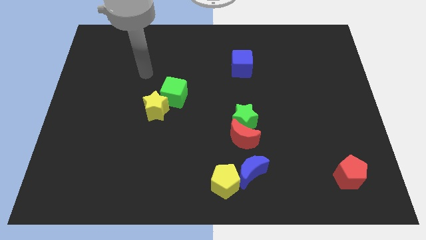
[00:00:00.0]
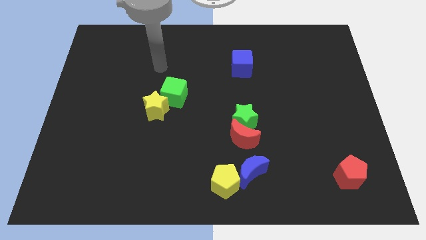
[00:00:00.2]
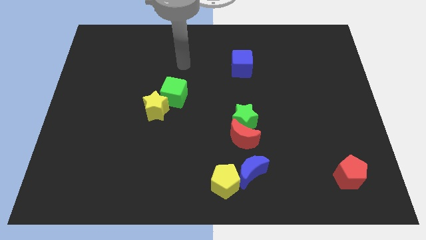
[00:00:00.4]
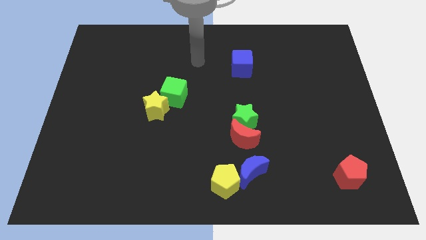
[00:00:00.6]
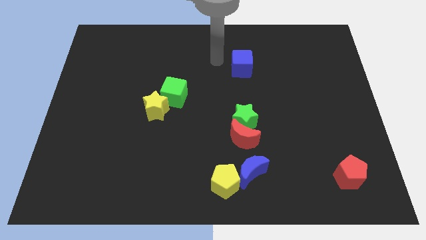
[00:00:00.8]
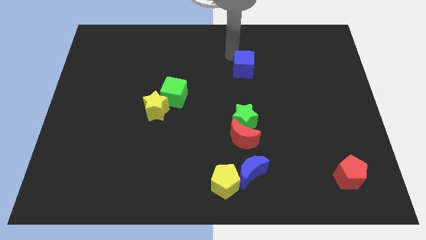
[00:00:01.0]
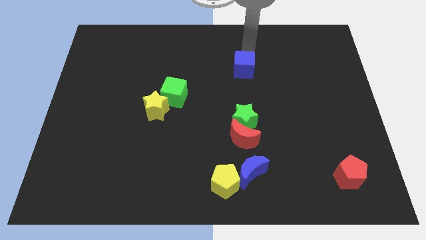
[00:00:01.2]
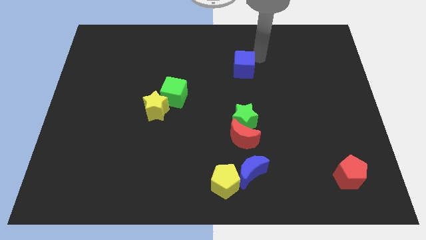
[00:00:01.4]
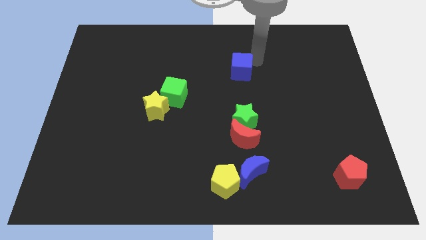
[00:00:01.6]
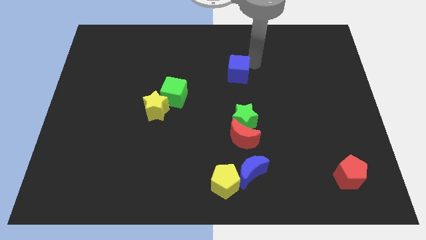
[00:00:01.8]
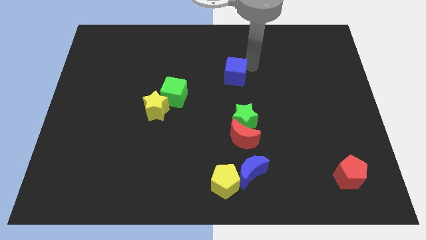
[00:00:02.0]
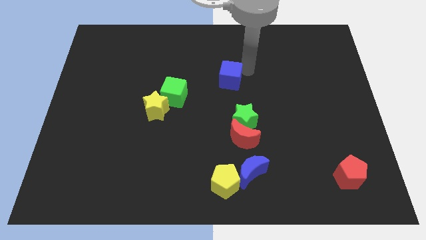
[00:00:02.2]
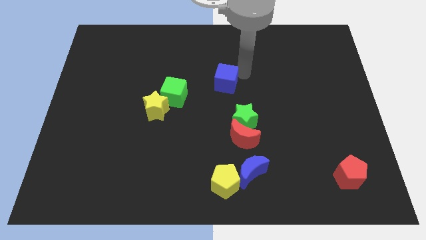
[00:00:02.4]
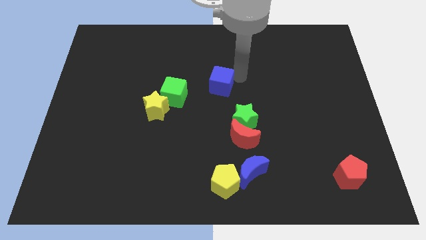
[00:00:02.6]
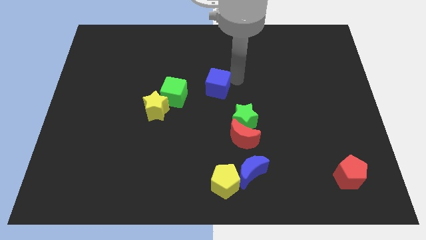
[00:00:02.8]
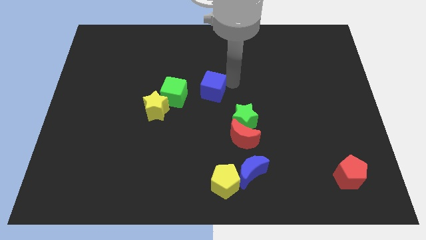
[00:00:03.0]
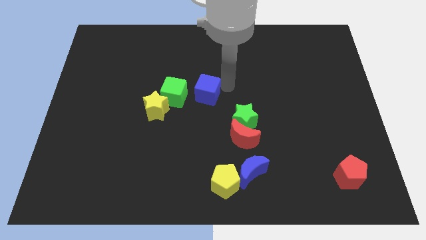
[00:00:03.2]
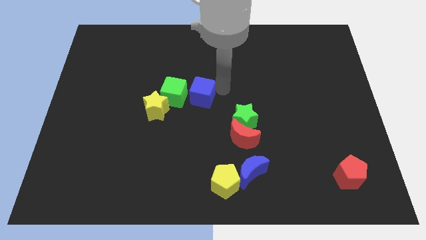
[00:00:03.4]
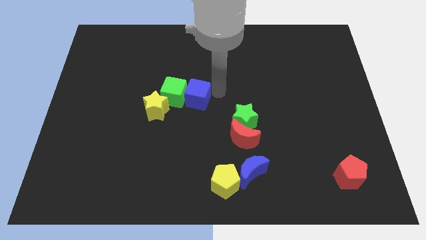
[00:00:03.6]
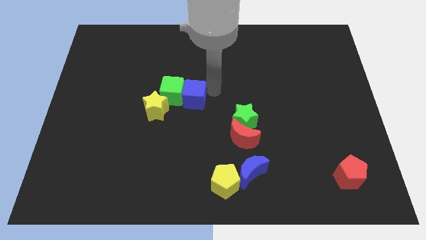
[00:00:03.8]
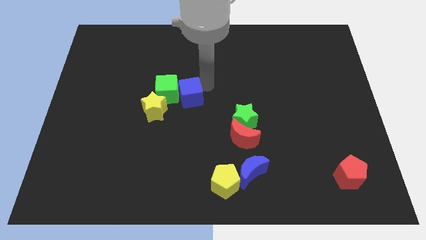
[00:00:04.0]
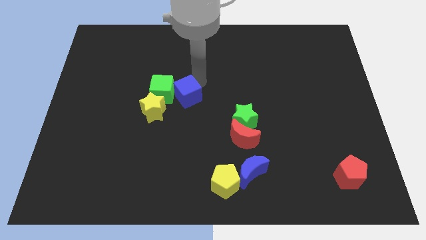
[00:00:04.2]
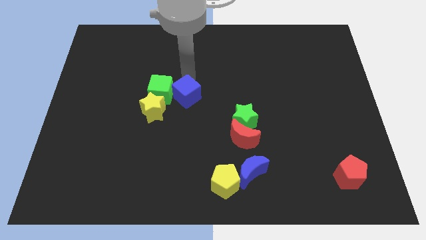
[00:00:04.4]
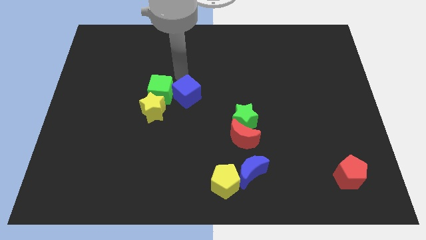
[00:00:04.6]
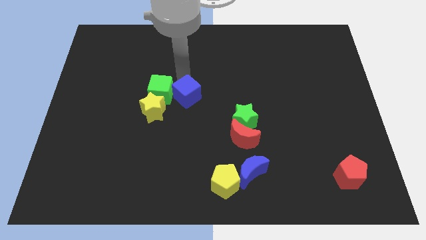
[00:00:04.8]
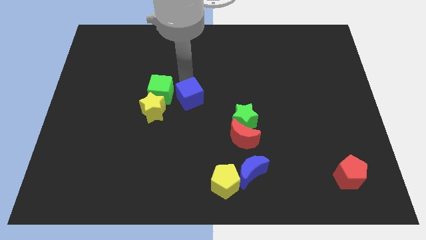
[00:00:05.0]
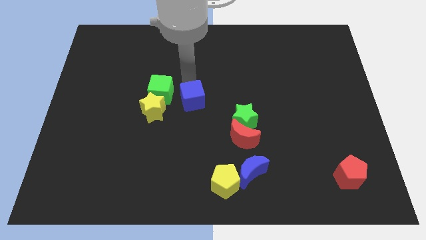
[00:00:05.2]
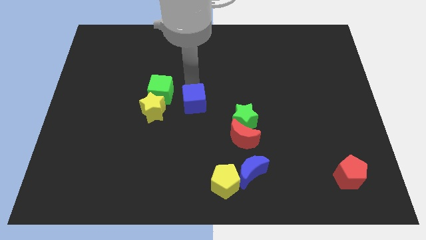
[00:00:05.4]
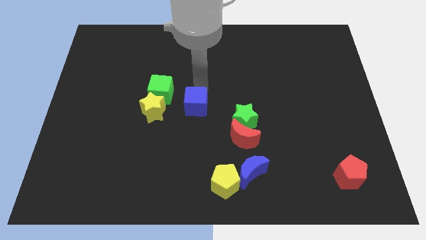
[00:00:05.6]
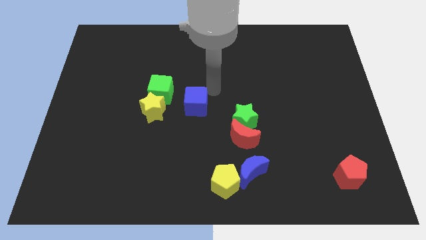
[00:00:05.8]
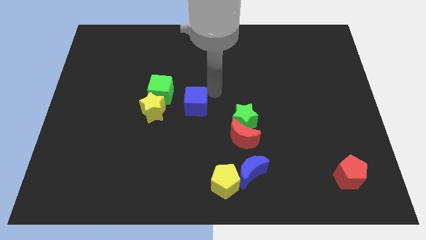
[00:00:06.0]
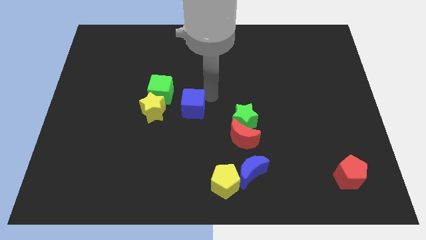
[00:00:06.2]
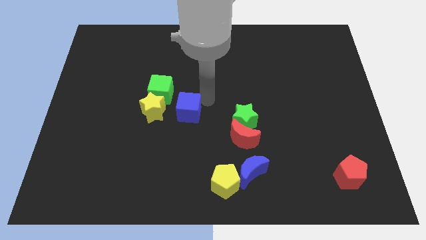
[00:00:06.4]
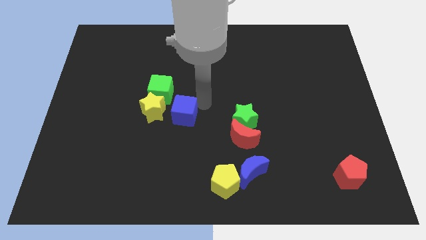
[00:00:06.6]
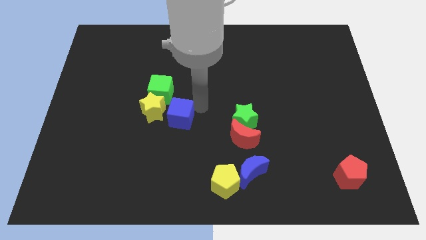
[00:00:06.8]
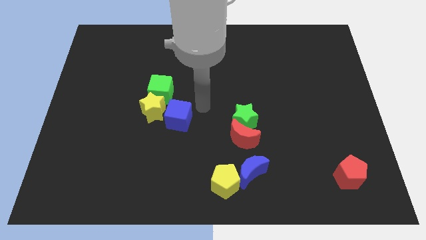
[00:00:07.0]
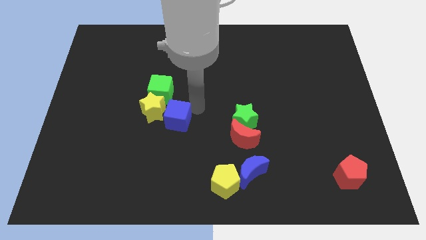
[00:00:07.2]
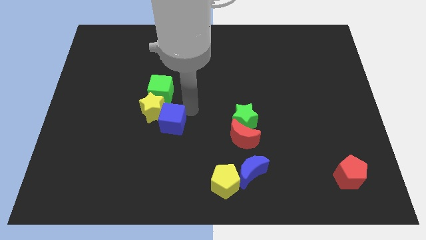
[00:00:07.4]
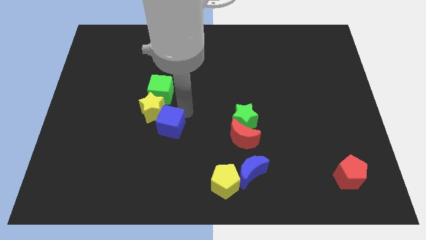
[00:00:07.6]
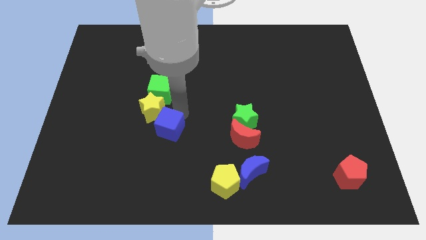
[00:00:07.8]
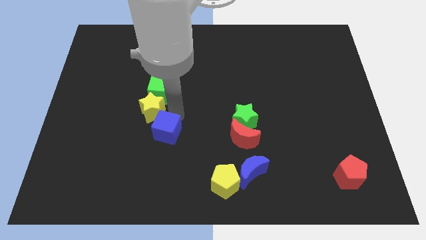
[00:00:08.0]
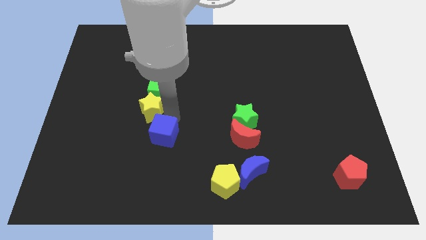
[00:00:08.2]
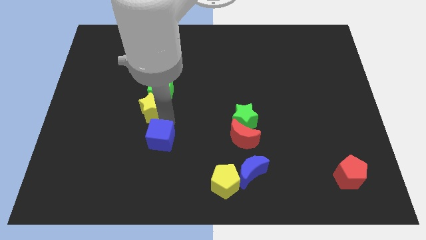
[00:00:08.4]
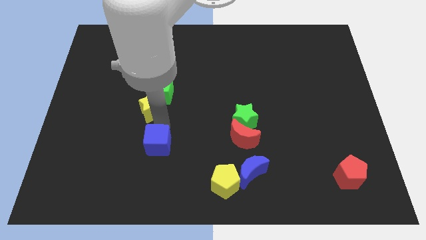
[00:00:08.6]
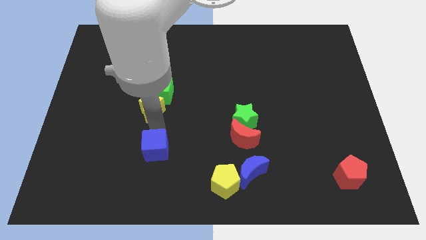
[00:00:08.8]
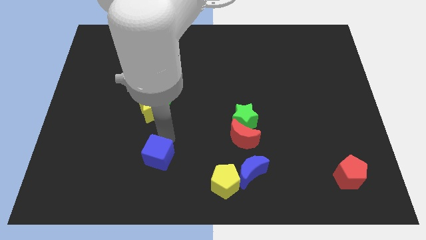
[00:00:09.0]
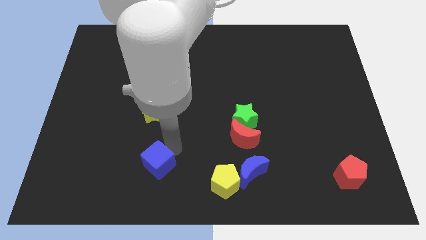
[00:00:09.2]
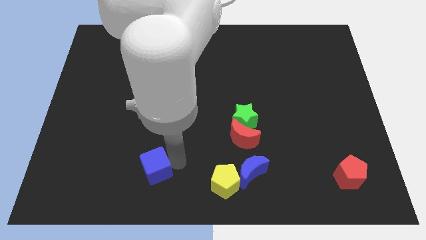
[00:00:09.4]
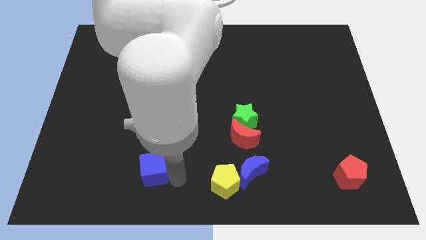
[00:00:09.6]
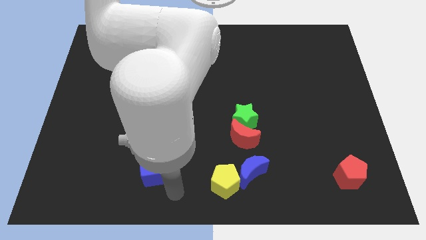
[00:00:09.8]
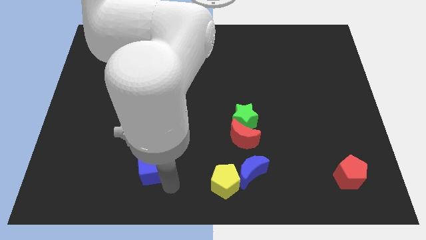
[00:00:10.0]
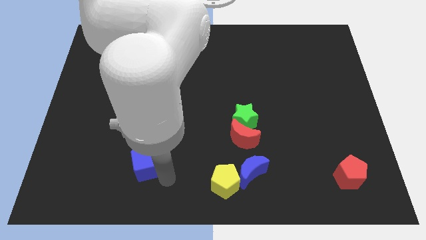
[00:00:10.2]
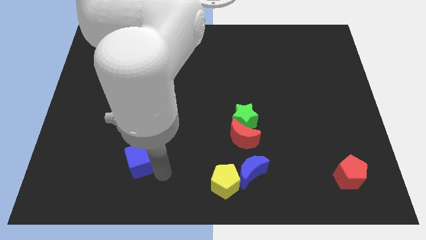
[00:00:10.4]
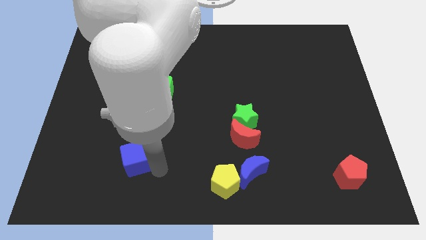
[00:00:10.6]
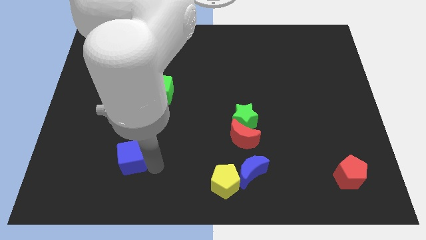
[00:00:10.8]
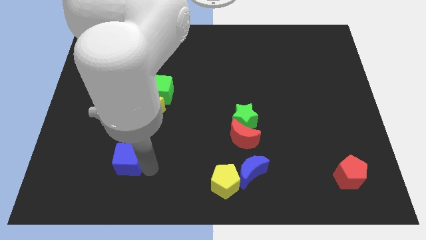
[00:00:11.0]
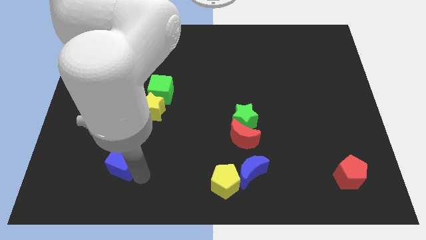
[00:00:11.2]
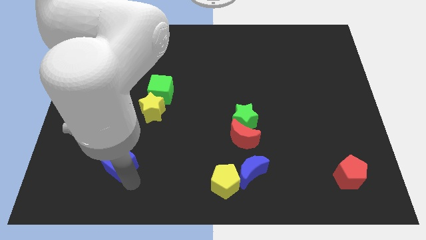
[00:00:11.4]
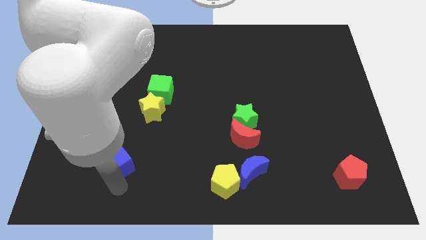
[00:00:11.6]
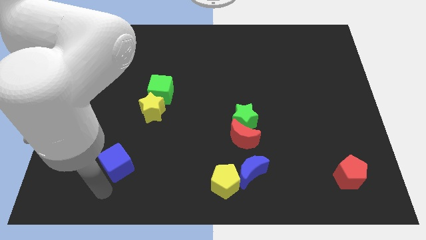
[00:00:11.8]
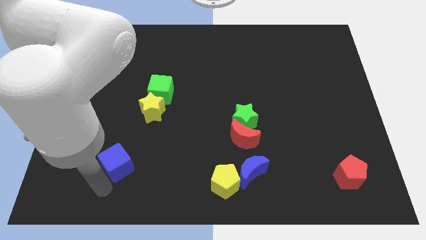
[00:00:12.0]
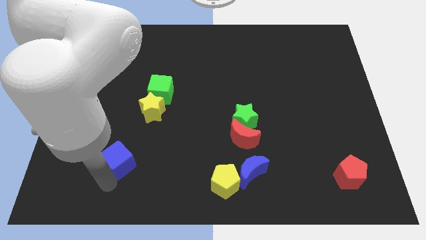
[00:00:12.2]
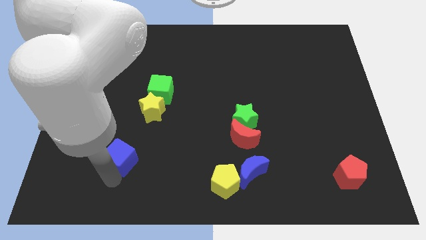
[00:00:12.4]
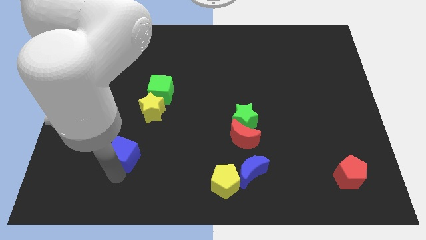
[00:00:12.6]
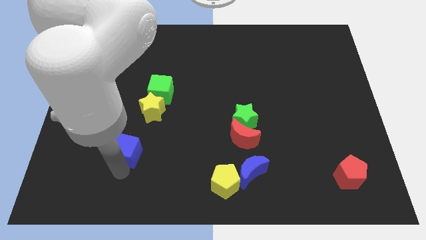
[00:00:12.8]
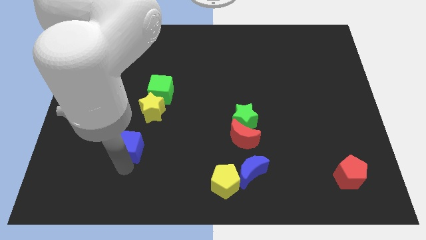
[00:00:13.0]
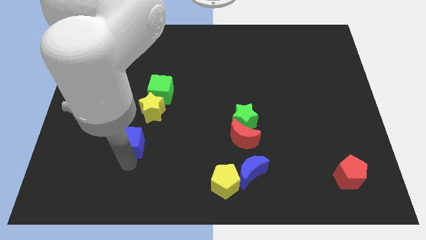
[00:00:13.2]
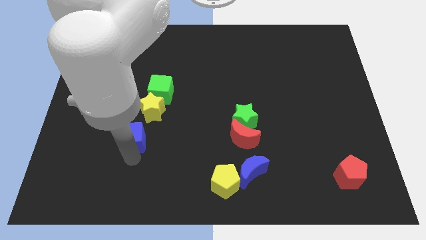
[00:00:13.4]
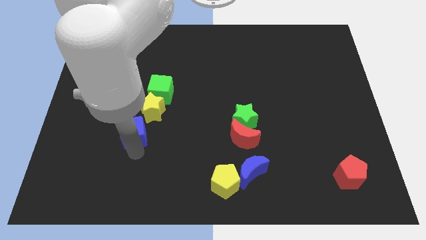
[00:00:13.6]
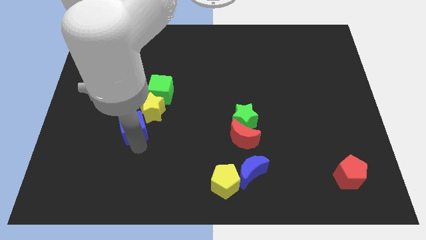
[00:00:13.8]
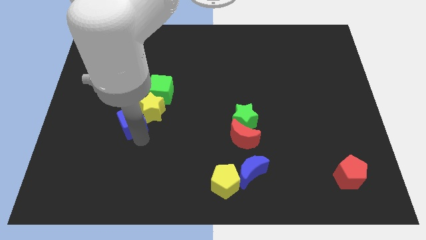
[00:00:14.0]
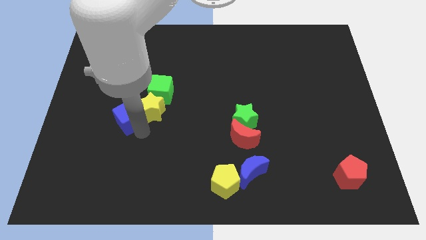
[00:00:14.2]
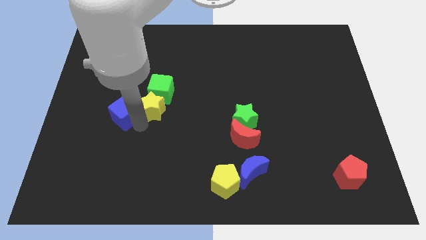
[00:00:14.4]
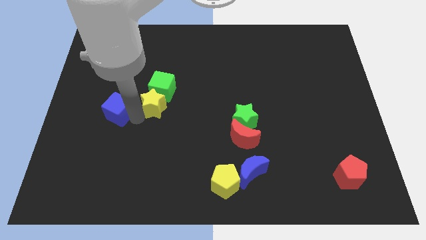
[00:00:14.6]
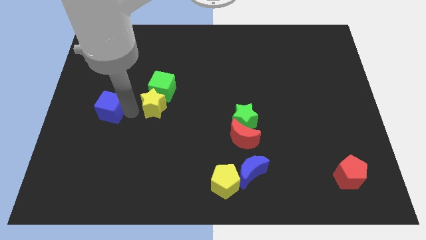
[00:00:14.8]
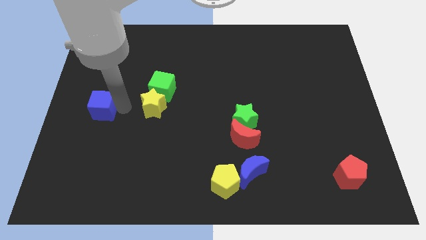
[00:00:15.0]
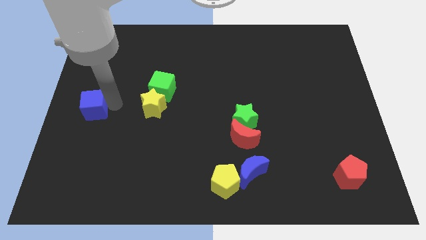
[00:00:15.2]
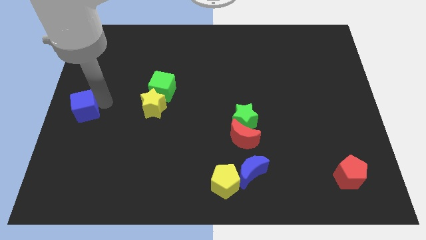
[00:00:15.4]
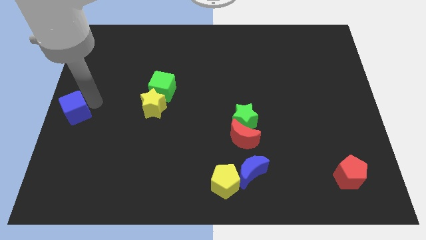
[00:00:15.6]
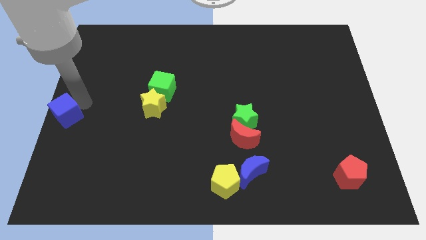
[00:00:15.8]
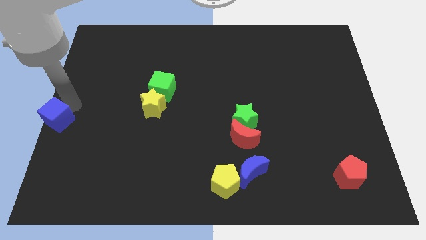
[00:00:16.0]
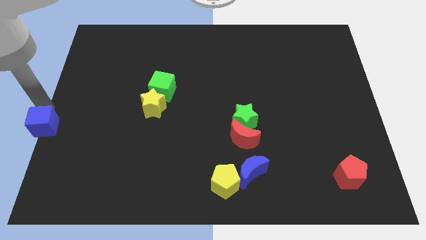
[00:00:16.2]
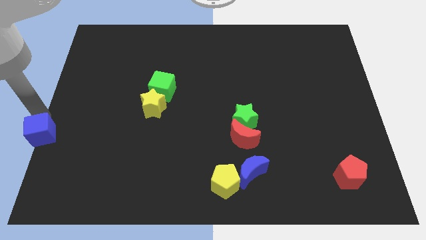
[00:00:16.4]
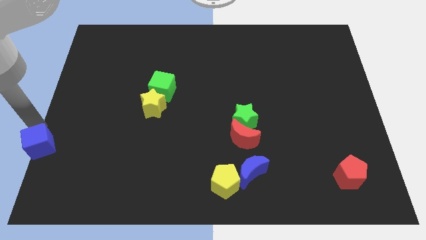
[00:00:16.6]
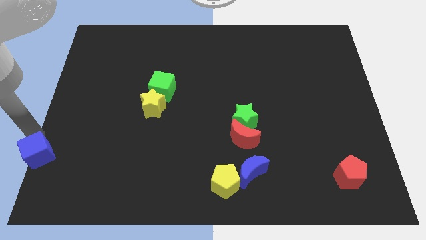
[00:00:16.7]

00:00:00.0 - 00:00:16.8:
slide the blue cube to the bottom left corner
